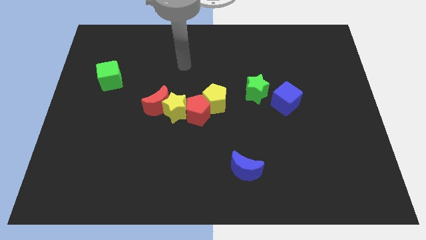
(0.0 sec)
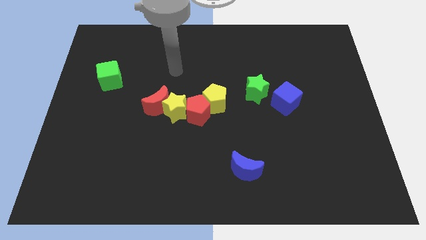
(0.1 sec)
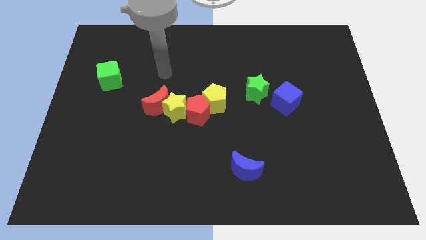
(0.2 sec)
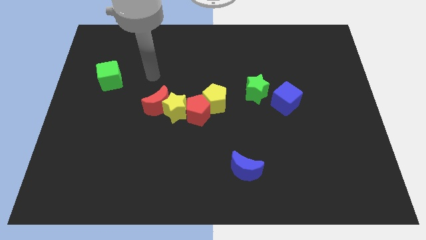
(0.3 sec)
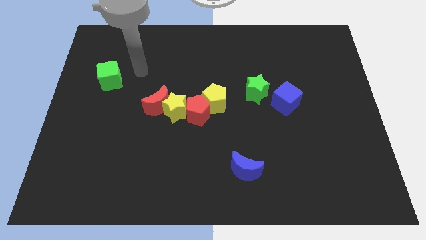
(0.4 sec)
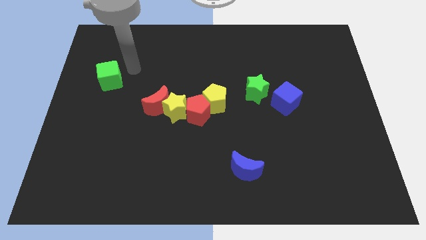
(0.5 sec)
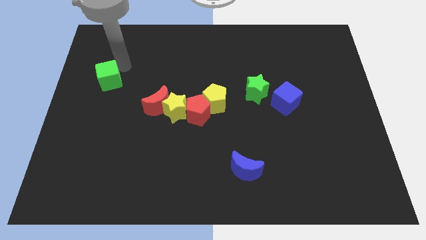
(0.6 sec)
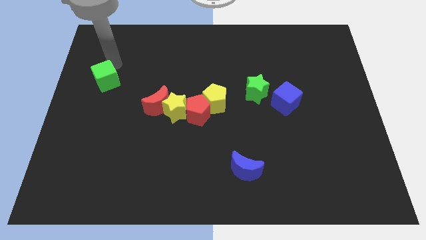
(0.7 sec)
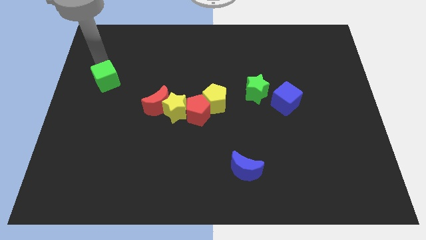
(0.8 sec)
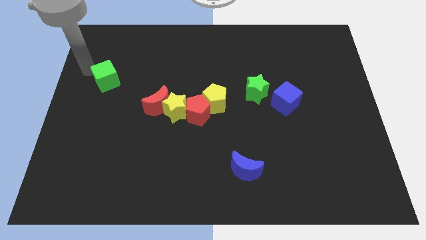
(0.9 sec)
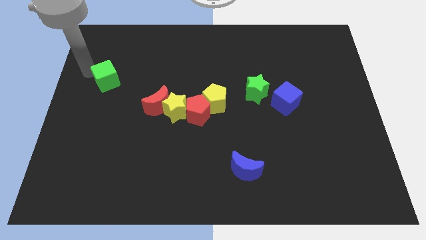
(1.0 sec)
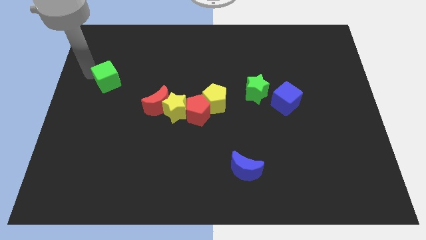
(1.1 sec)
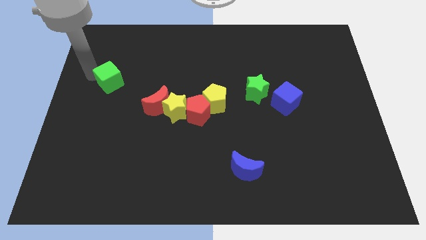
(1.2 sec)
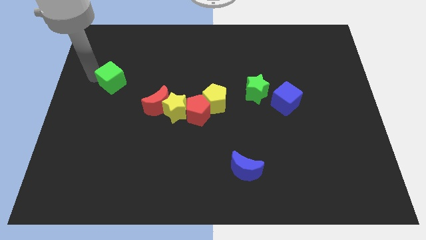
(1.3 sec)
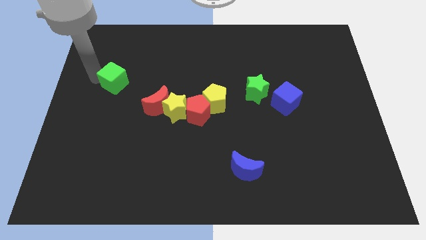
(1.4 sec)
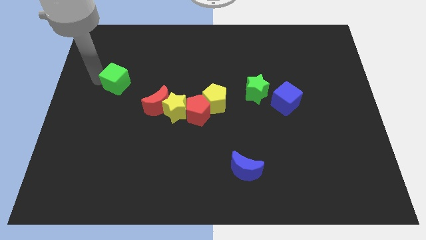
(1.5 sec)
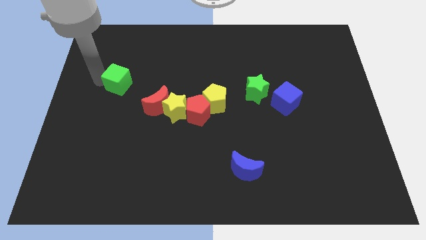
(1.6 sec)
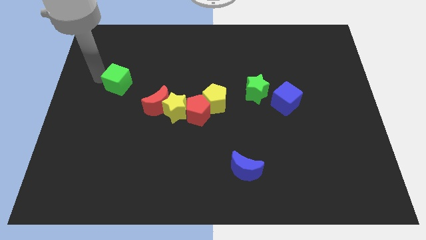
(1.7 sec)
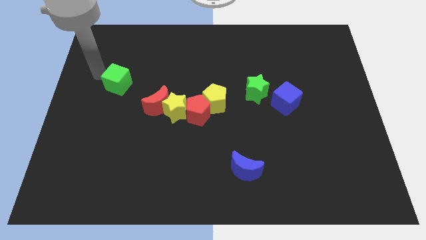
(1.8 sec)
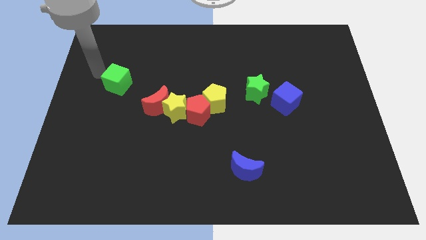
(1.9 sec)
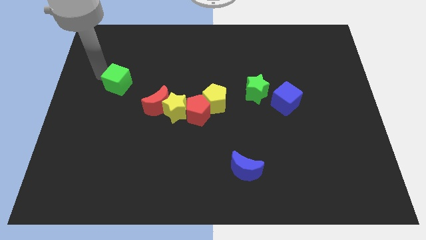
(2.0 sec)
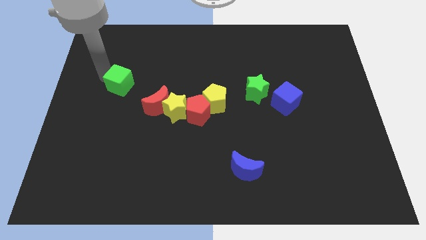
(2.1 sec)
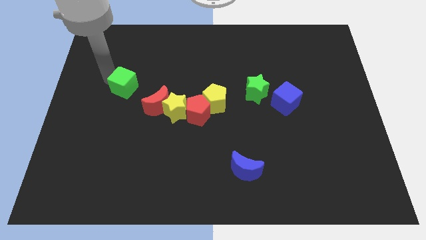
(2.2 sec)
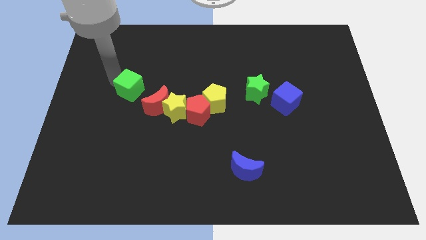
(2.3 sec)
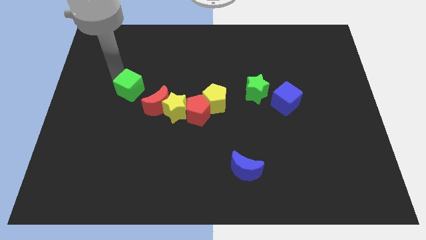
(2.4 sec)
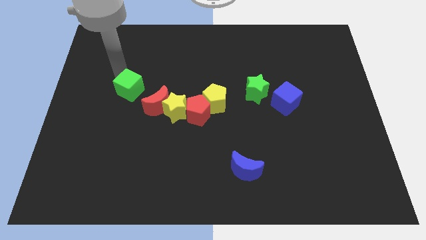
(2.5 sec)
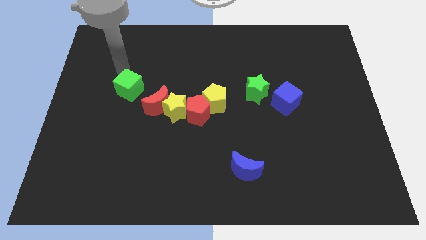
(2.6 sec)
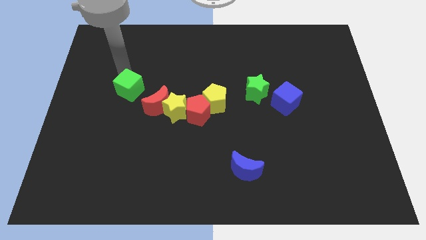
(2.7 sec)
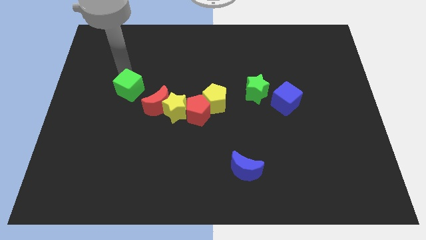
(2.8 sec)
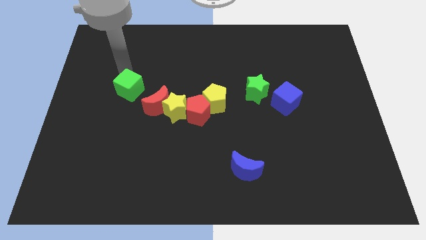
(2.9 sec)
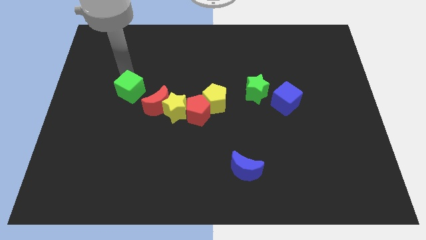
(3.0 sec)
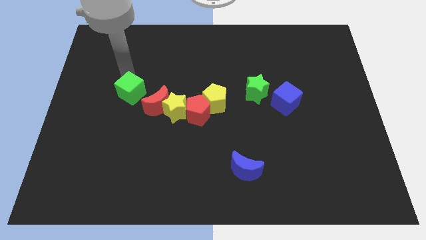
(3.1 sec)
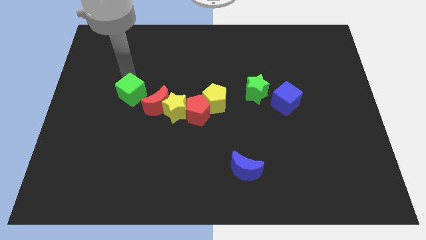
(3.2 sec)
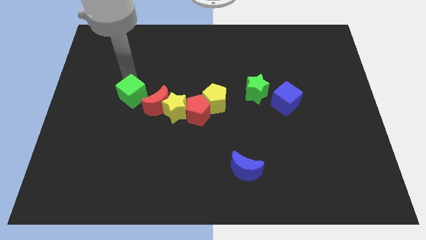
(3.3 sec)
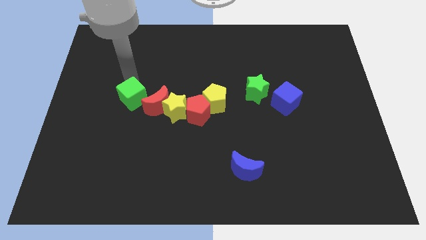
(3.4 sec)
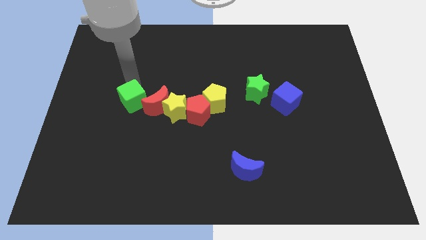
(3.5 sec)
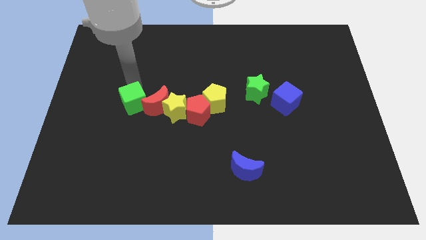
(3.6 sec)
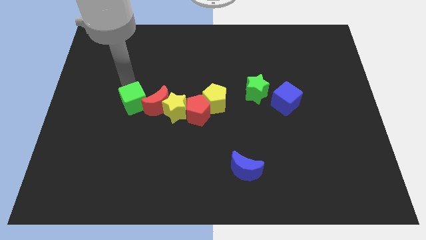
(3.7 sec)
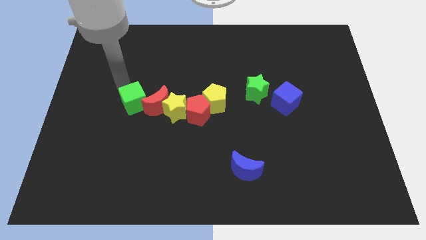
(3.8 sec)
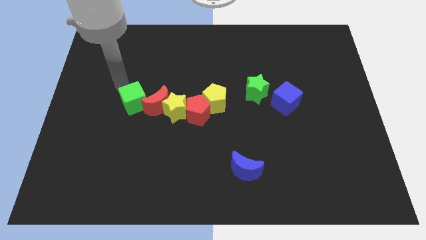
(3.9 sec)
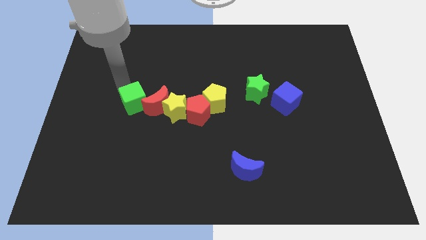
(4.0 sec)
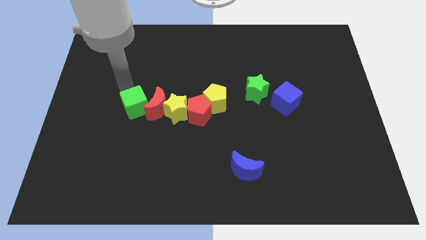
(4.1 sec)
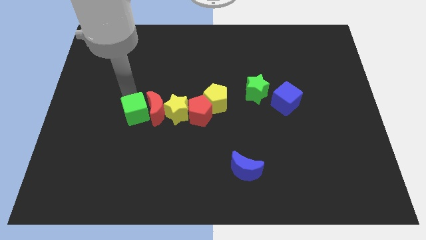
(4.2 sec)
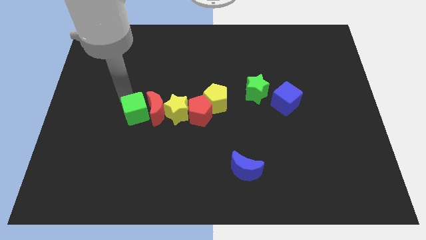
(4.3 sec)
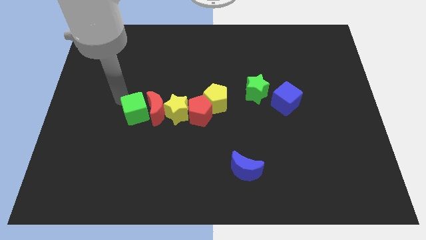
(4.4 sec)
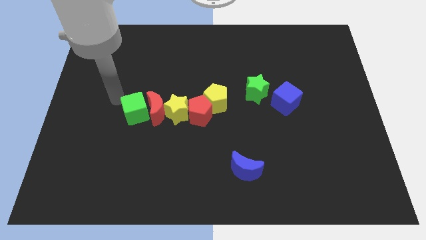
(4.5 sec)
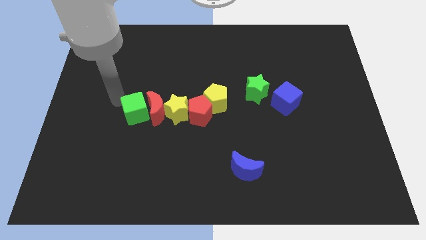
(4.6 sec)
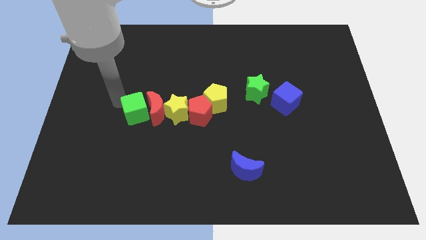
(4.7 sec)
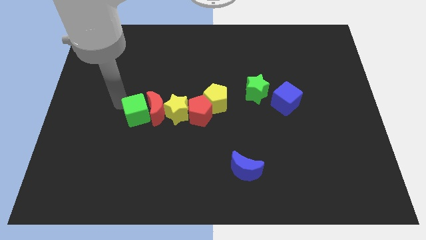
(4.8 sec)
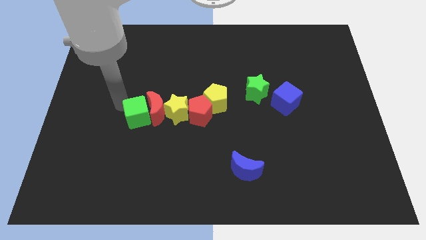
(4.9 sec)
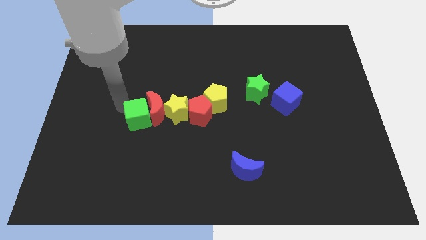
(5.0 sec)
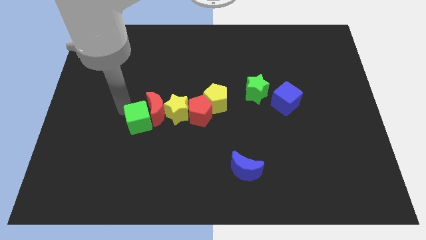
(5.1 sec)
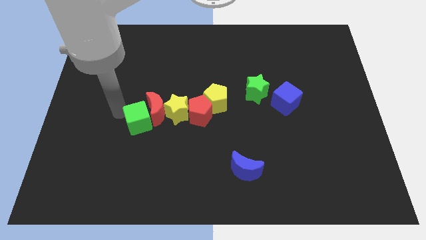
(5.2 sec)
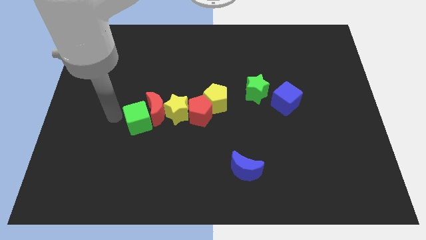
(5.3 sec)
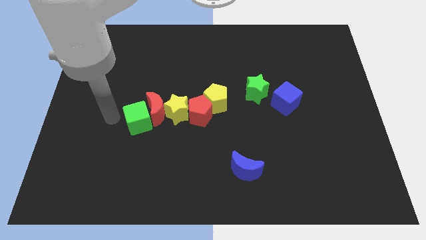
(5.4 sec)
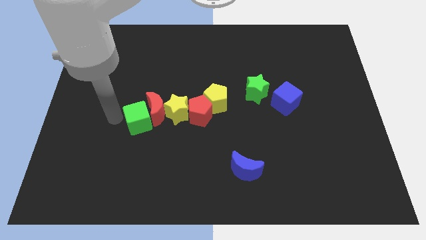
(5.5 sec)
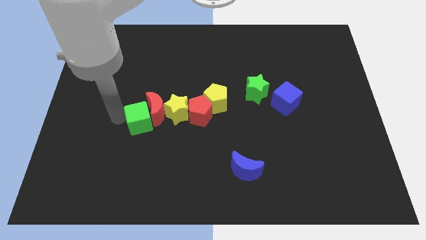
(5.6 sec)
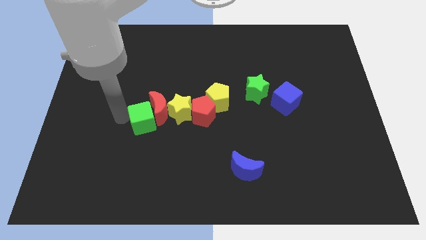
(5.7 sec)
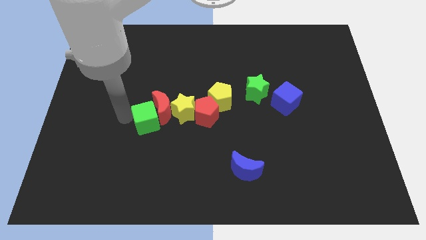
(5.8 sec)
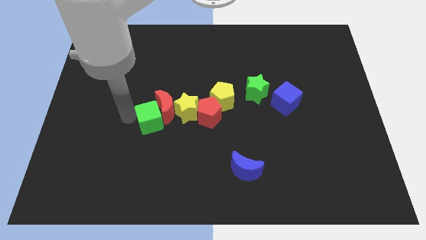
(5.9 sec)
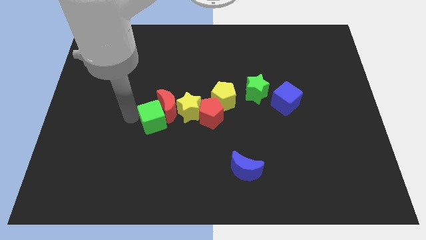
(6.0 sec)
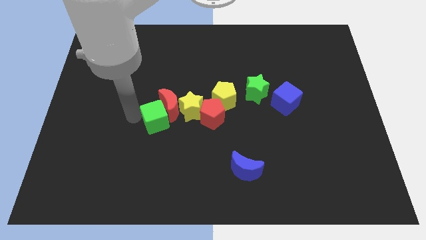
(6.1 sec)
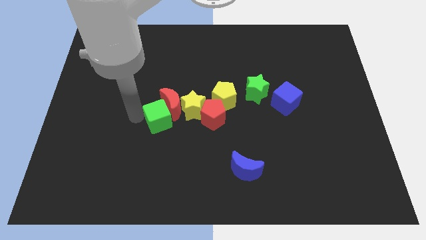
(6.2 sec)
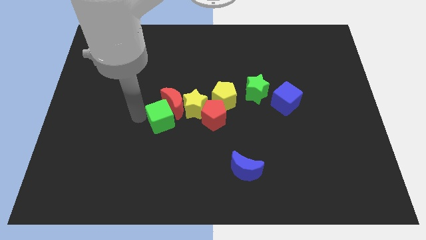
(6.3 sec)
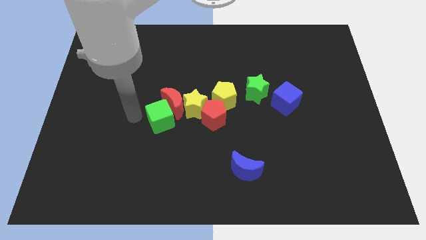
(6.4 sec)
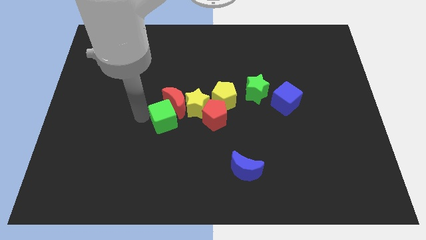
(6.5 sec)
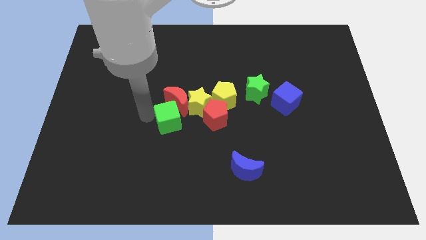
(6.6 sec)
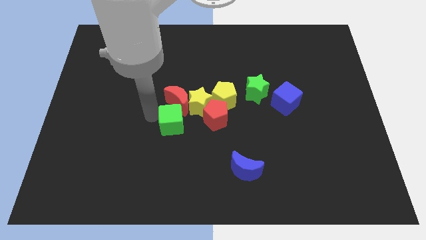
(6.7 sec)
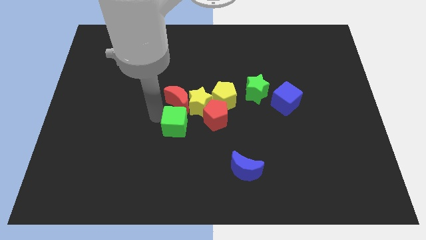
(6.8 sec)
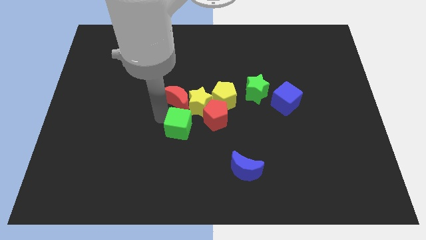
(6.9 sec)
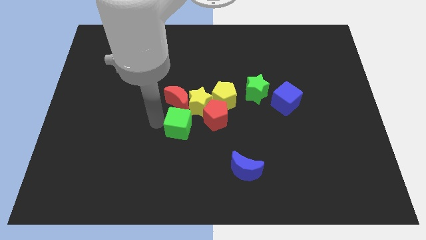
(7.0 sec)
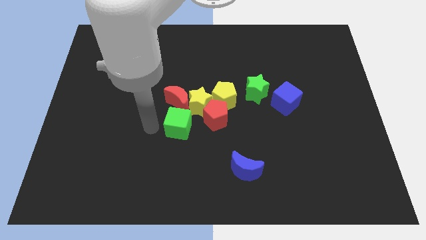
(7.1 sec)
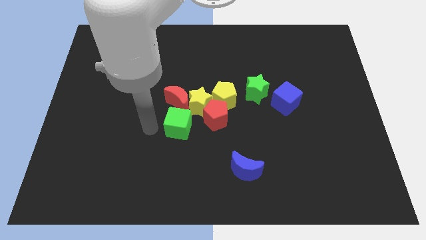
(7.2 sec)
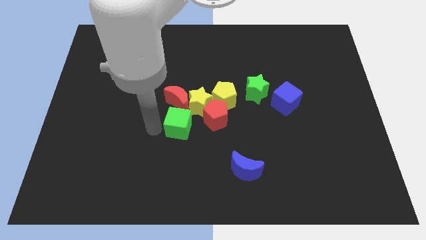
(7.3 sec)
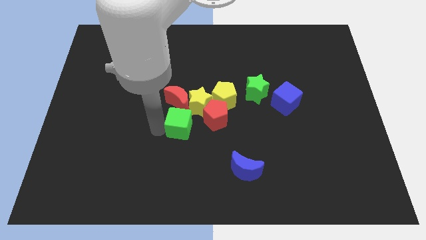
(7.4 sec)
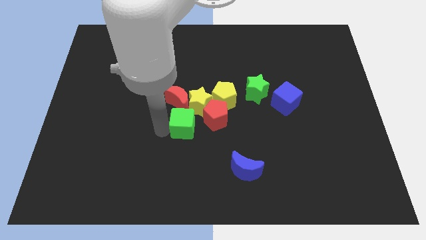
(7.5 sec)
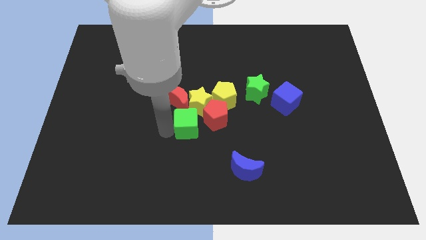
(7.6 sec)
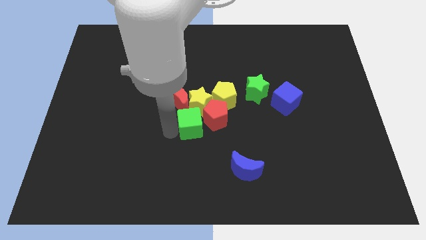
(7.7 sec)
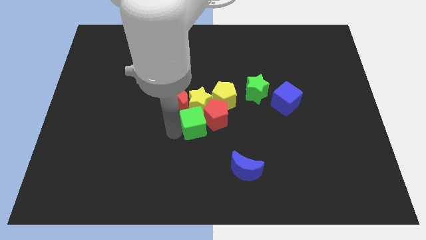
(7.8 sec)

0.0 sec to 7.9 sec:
push the green cube to the bottom right of the yellow star
